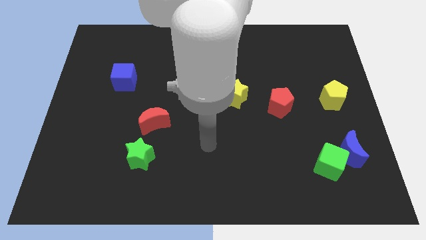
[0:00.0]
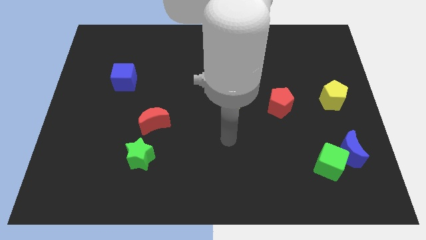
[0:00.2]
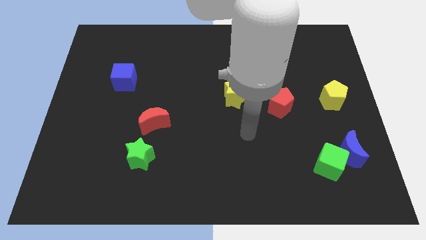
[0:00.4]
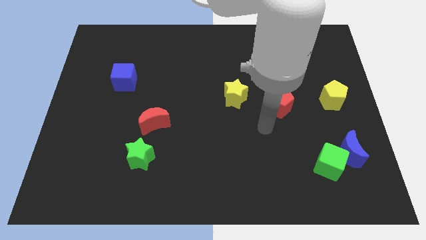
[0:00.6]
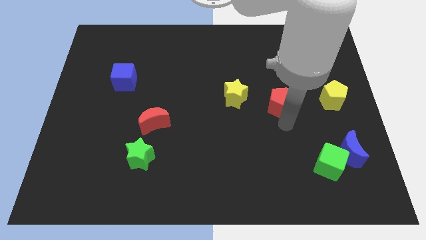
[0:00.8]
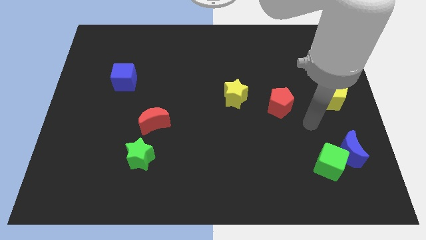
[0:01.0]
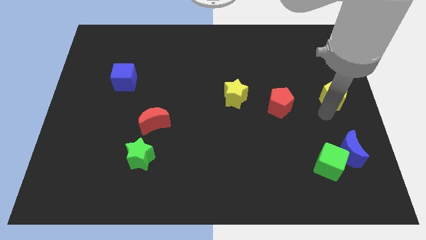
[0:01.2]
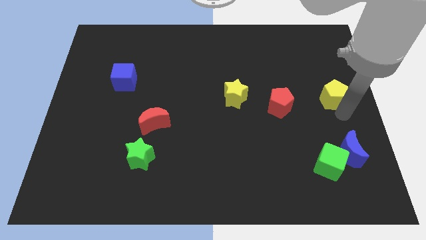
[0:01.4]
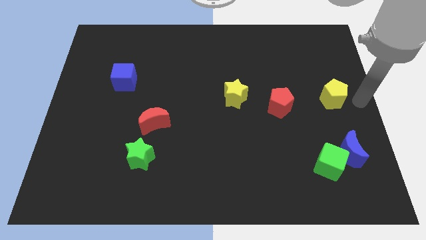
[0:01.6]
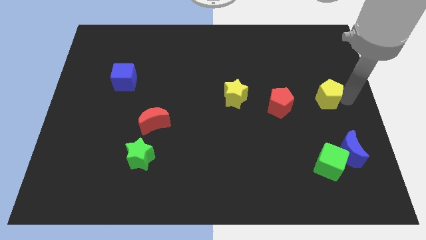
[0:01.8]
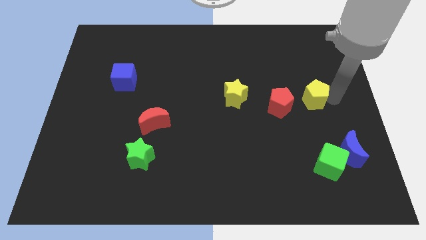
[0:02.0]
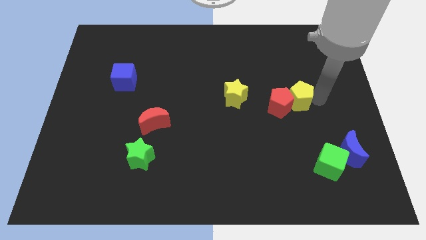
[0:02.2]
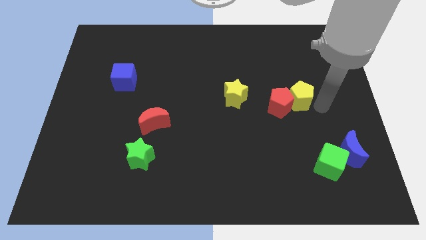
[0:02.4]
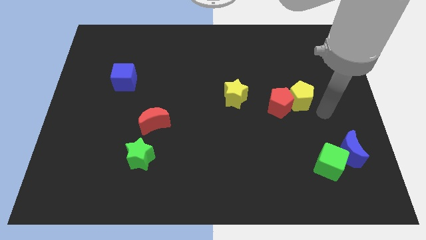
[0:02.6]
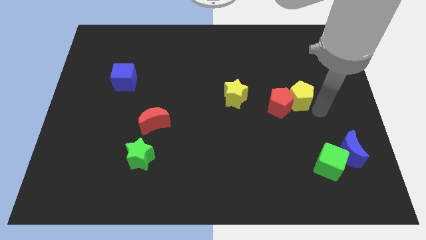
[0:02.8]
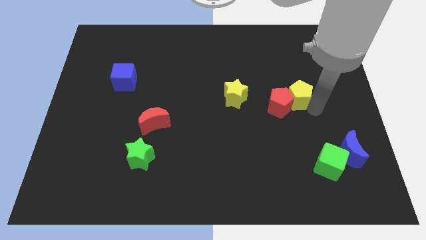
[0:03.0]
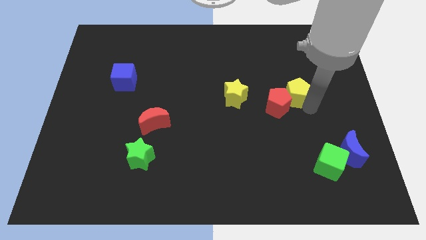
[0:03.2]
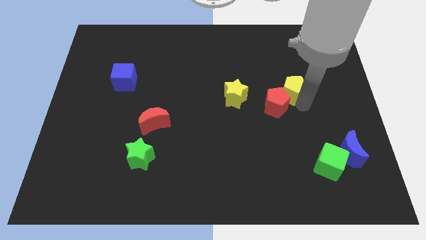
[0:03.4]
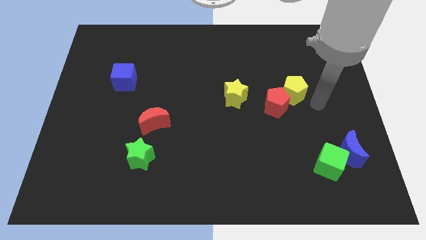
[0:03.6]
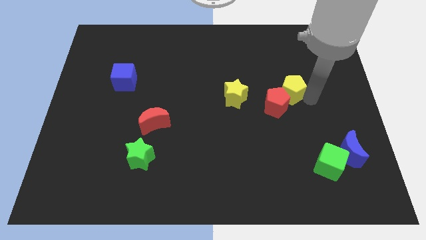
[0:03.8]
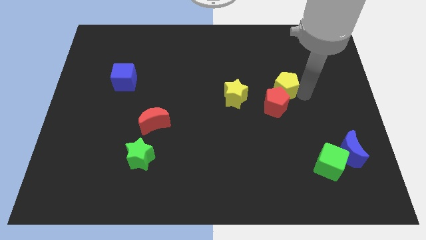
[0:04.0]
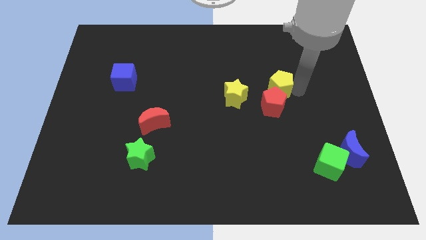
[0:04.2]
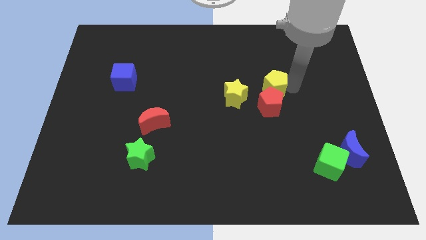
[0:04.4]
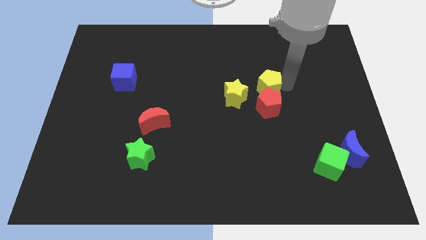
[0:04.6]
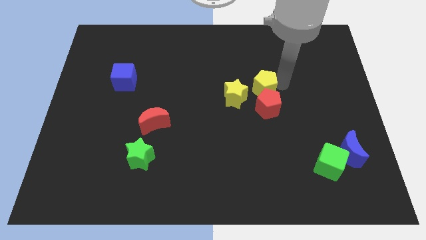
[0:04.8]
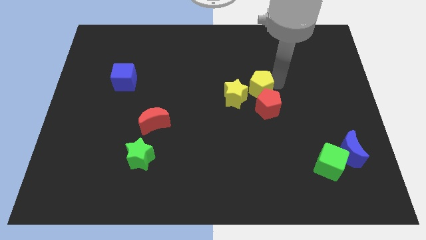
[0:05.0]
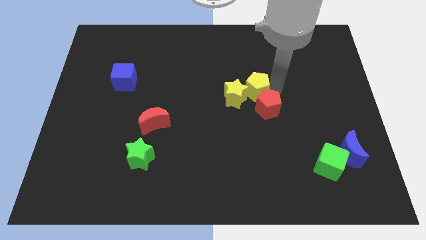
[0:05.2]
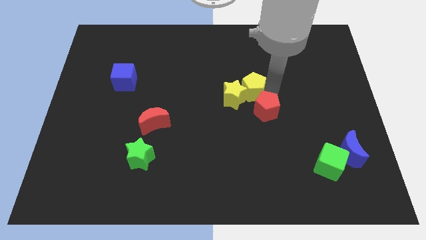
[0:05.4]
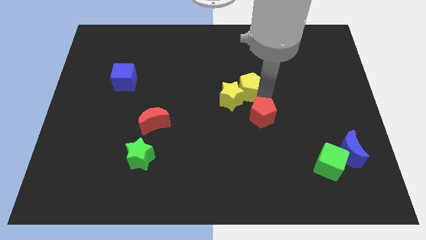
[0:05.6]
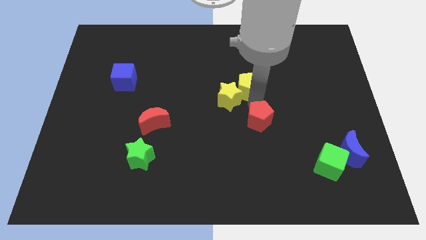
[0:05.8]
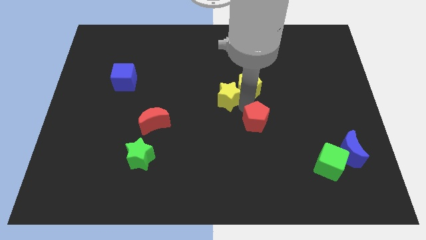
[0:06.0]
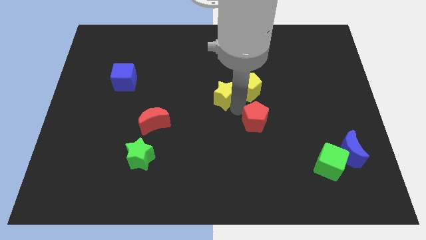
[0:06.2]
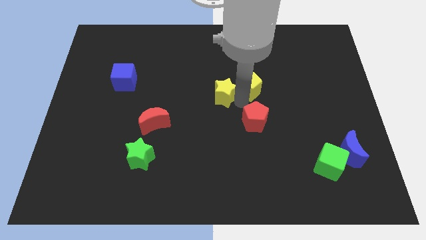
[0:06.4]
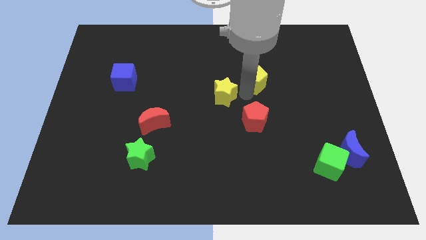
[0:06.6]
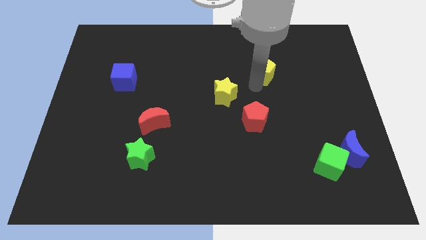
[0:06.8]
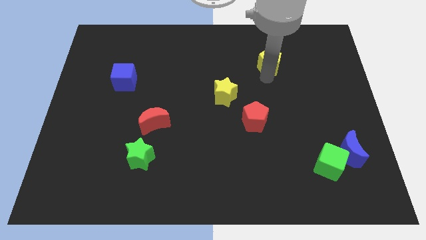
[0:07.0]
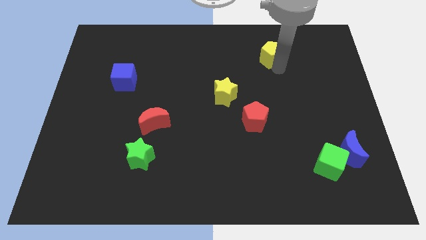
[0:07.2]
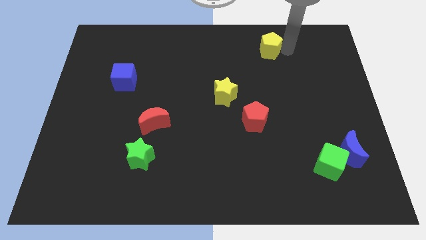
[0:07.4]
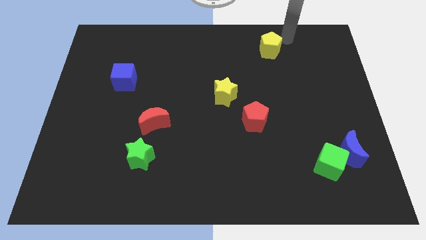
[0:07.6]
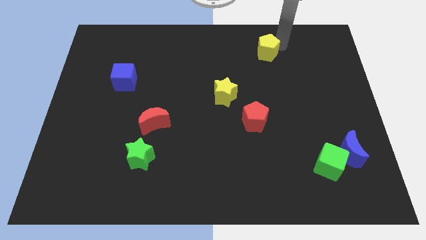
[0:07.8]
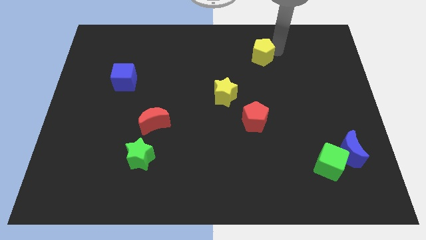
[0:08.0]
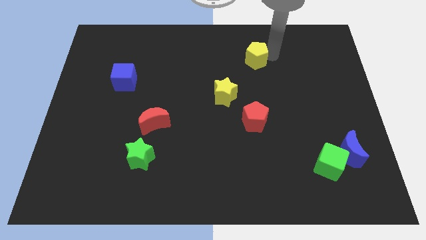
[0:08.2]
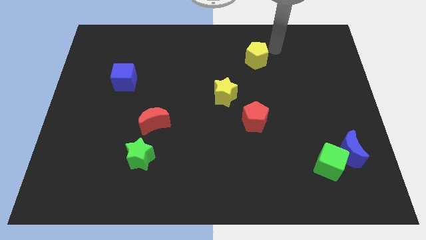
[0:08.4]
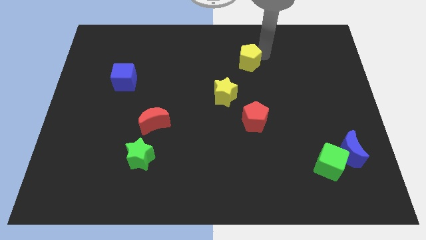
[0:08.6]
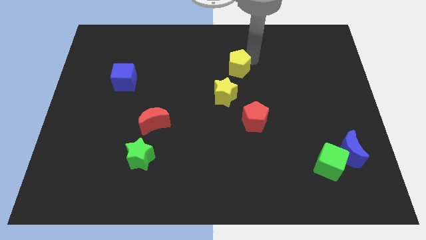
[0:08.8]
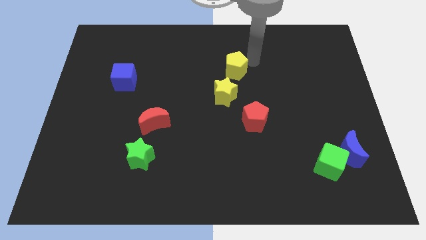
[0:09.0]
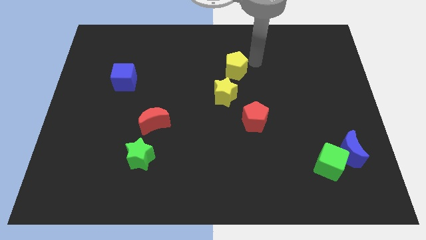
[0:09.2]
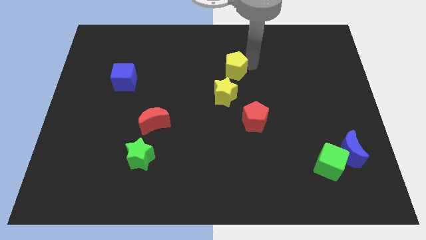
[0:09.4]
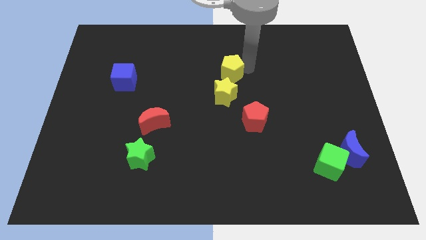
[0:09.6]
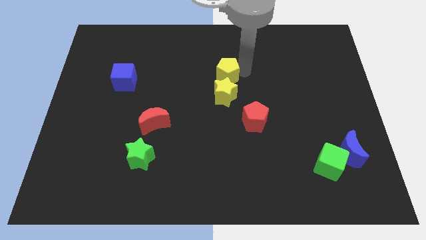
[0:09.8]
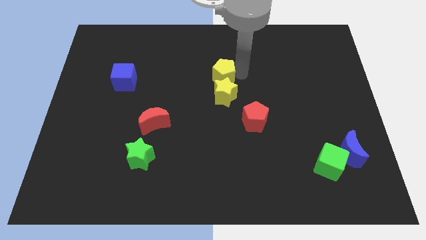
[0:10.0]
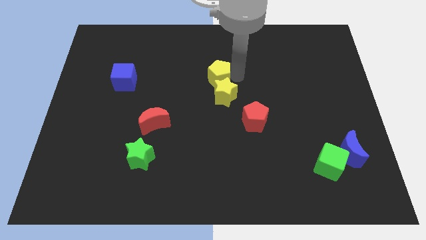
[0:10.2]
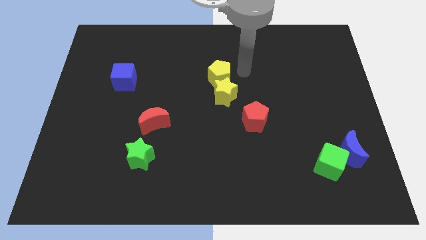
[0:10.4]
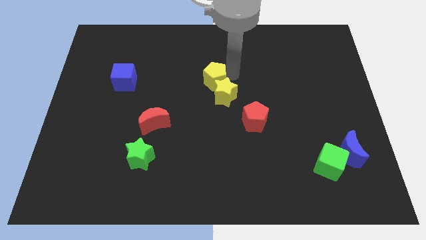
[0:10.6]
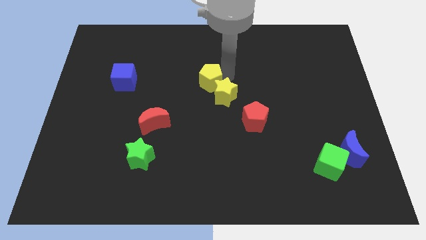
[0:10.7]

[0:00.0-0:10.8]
move the yellow pentagon just left of the yellow star

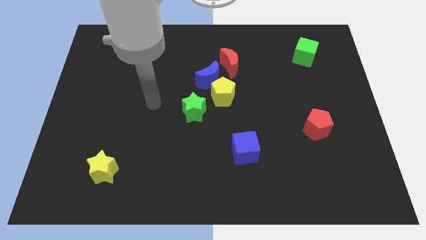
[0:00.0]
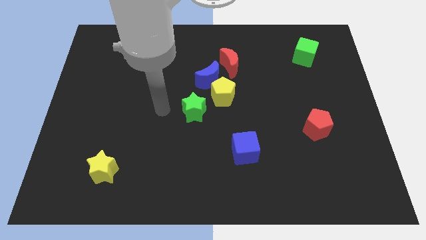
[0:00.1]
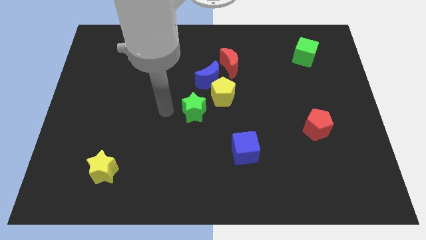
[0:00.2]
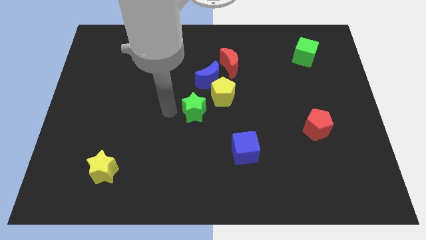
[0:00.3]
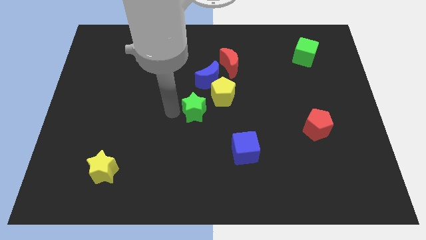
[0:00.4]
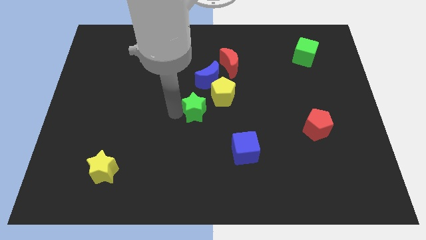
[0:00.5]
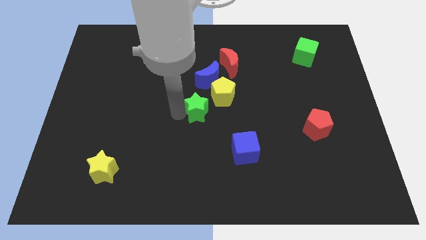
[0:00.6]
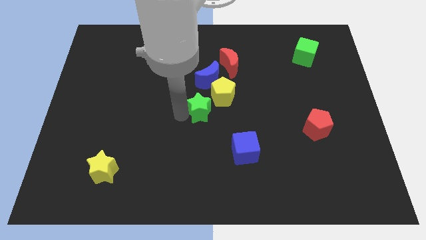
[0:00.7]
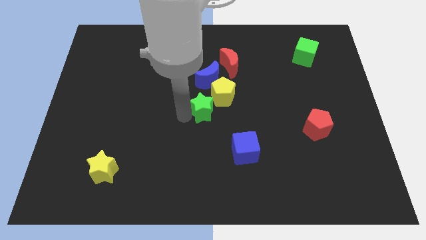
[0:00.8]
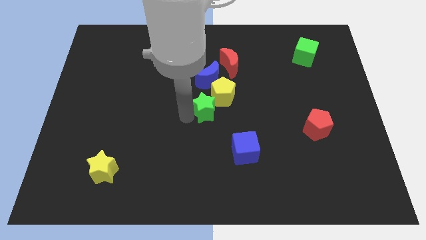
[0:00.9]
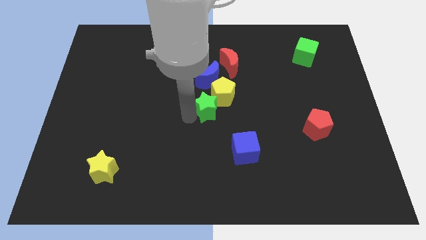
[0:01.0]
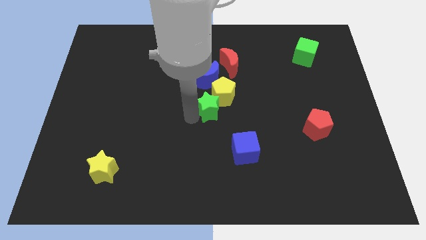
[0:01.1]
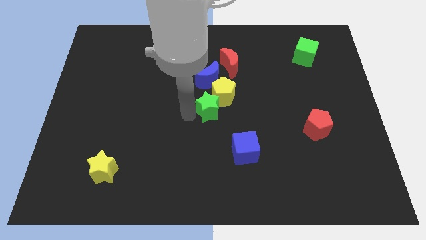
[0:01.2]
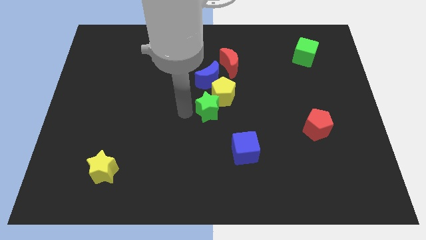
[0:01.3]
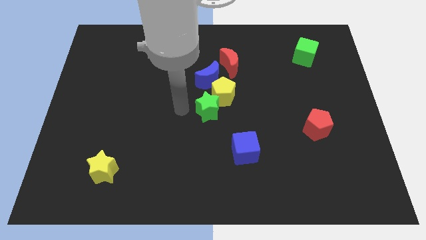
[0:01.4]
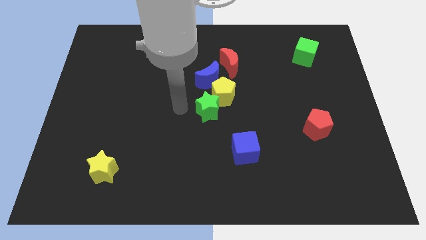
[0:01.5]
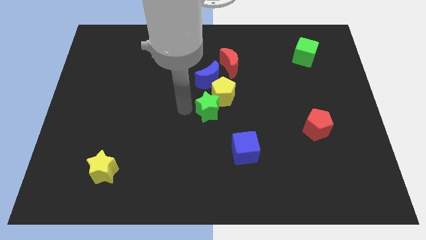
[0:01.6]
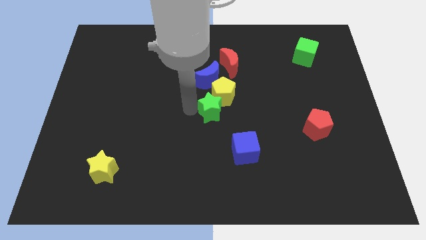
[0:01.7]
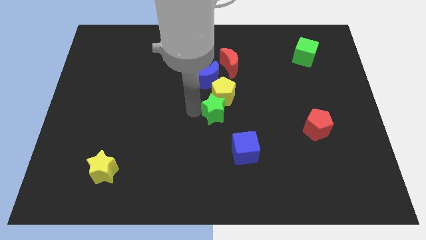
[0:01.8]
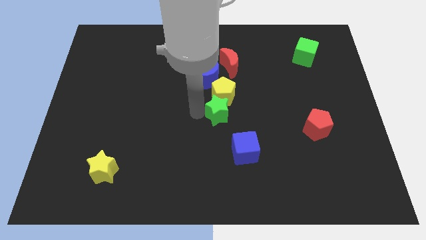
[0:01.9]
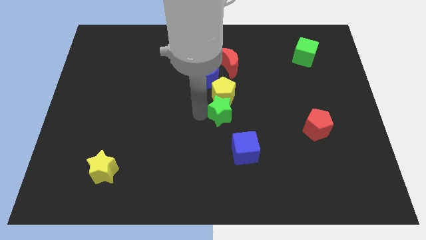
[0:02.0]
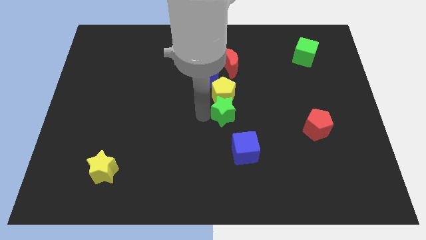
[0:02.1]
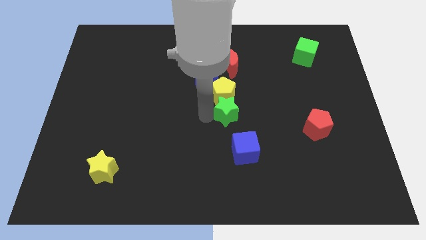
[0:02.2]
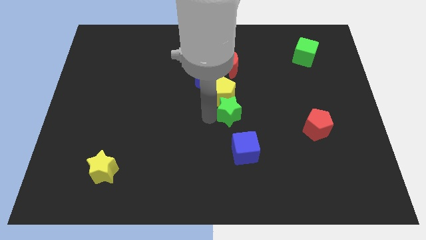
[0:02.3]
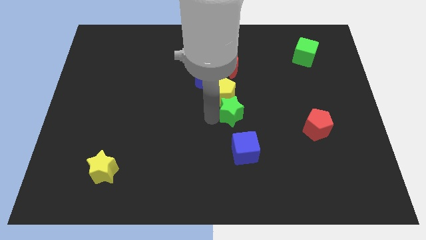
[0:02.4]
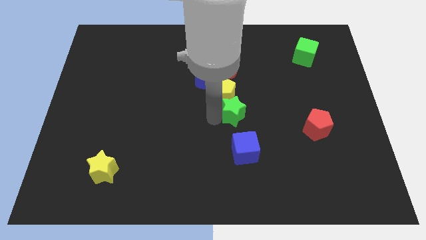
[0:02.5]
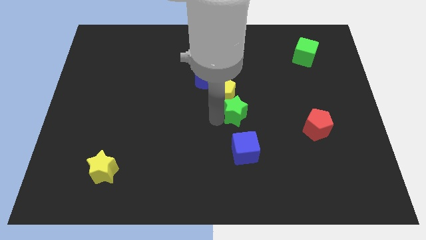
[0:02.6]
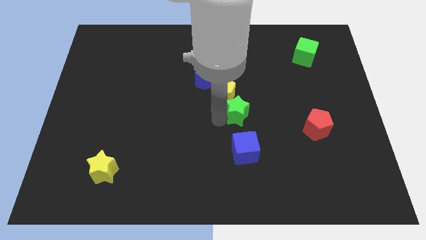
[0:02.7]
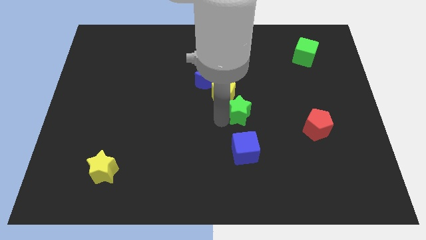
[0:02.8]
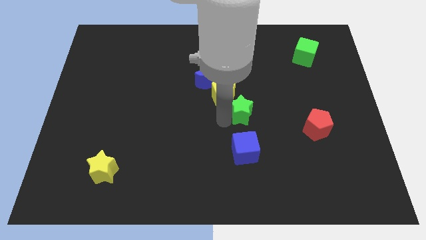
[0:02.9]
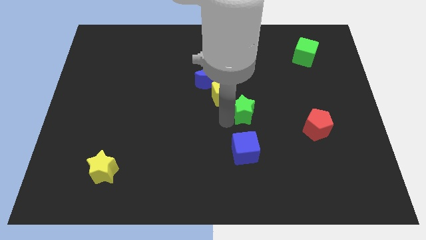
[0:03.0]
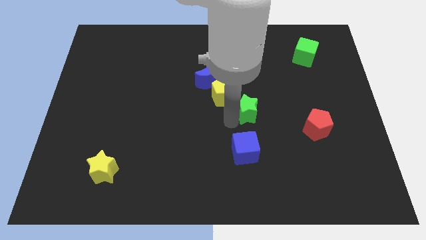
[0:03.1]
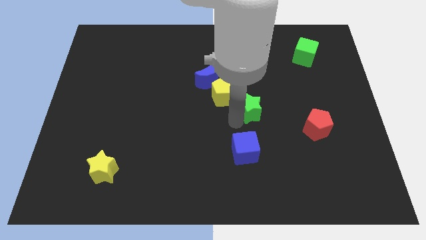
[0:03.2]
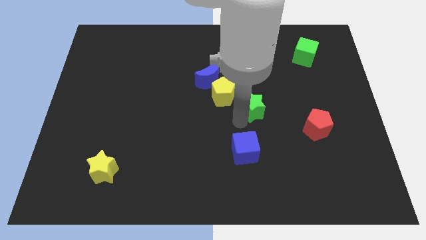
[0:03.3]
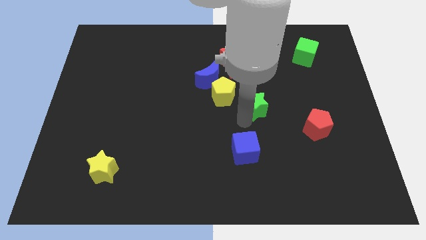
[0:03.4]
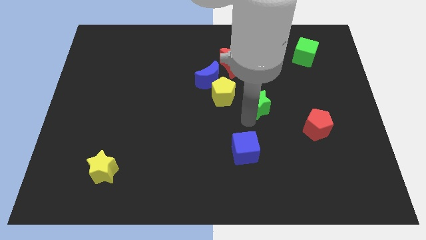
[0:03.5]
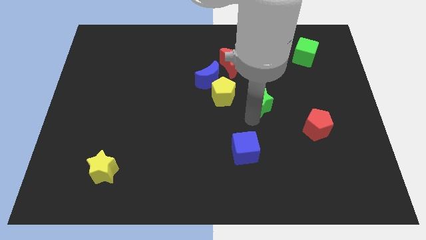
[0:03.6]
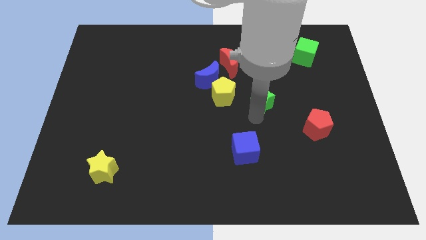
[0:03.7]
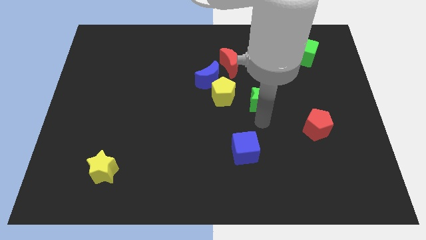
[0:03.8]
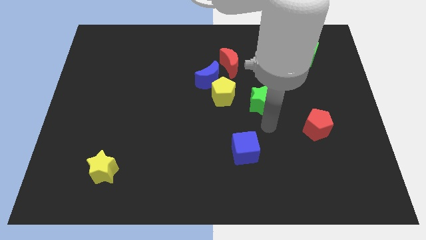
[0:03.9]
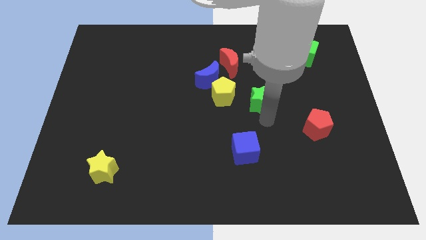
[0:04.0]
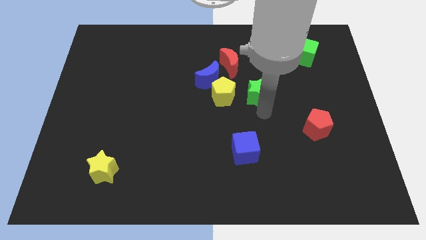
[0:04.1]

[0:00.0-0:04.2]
put the green star to the bottom right of the red moon
